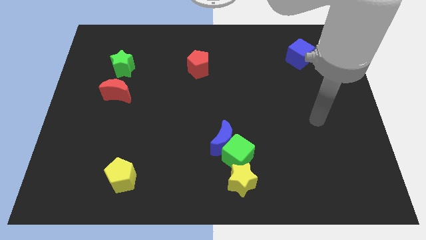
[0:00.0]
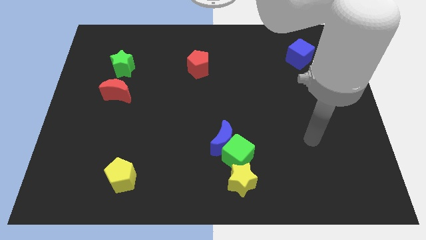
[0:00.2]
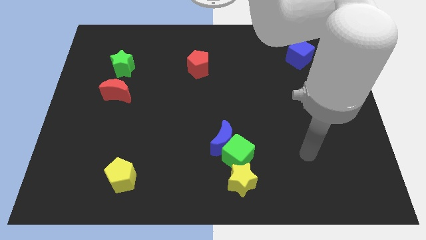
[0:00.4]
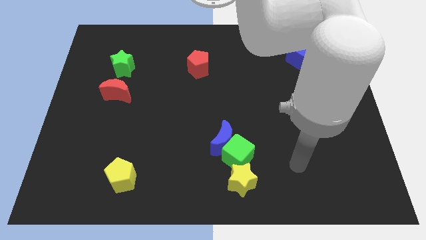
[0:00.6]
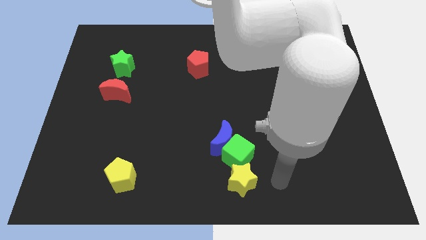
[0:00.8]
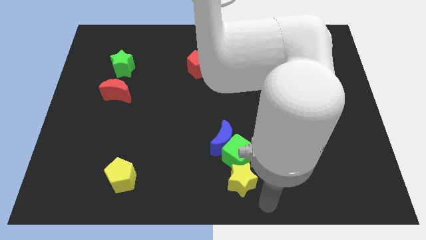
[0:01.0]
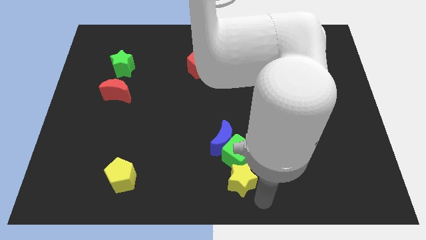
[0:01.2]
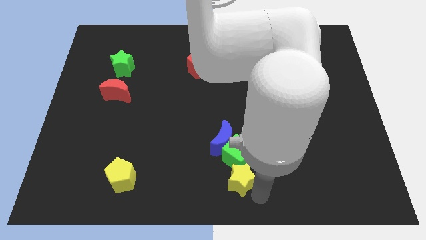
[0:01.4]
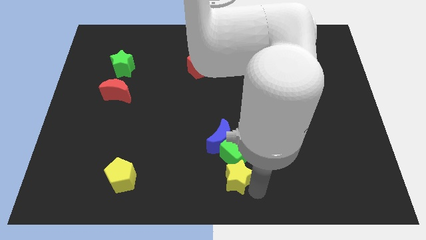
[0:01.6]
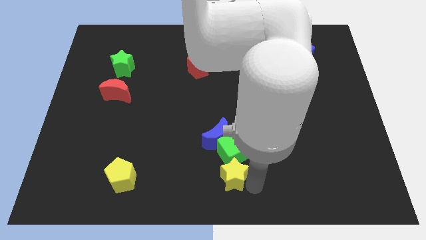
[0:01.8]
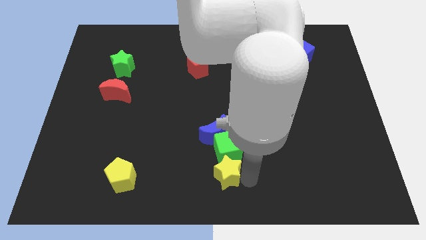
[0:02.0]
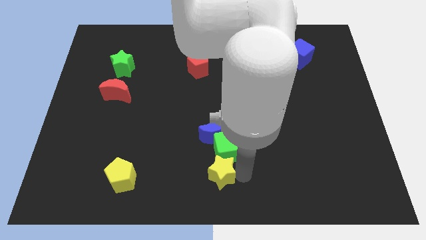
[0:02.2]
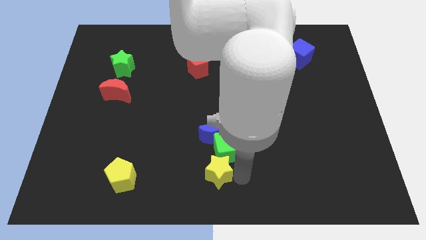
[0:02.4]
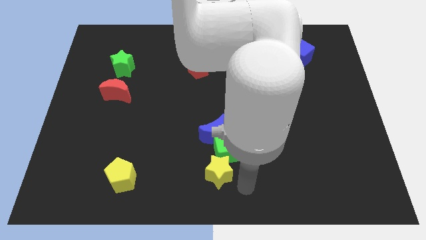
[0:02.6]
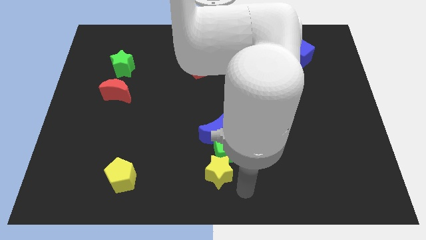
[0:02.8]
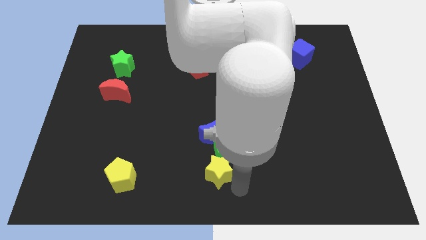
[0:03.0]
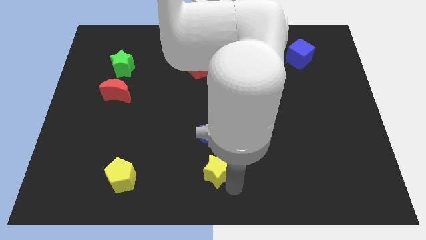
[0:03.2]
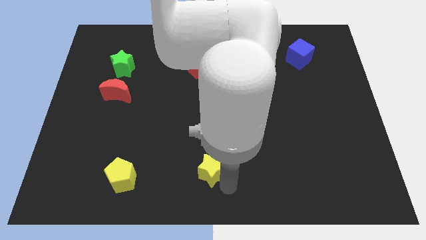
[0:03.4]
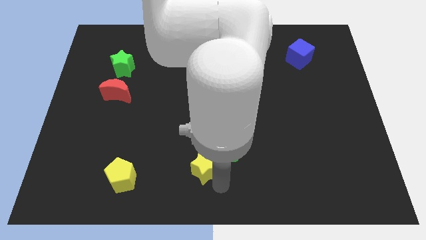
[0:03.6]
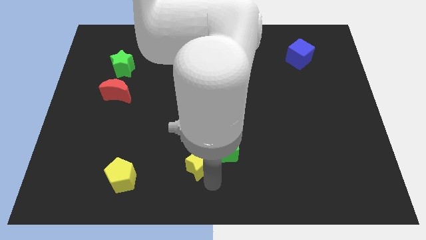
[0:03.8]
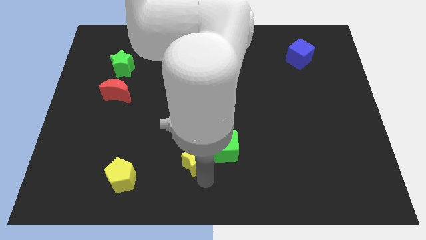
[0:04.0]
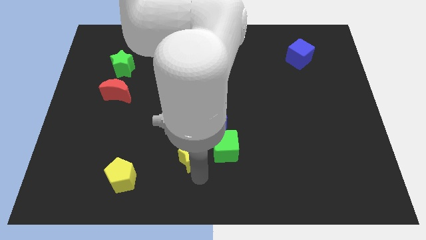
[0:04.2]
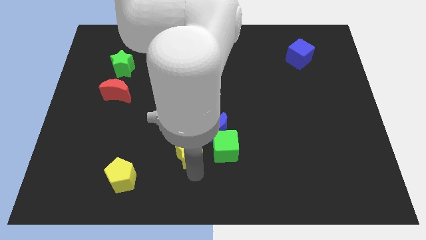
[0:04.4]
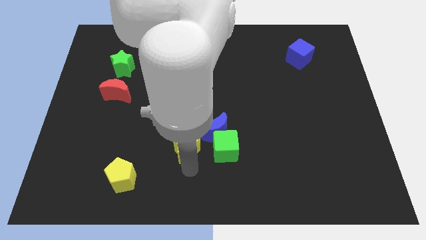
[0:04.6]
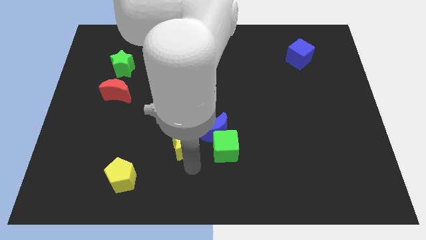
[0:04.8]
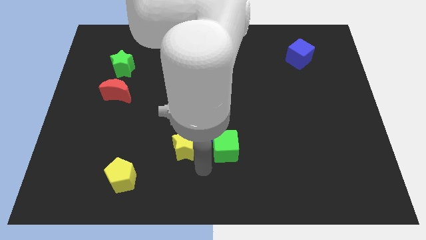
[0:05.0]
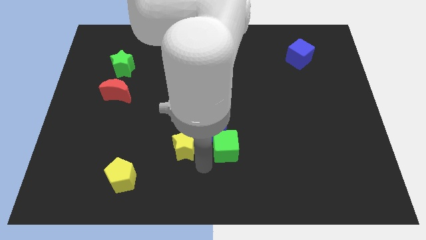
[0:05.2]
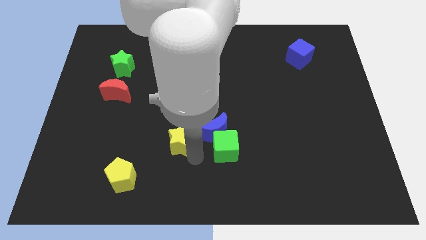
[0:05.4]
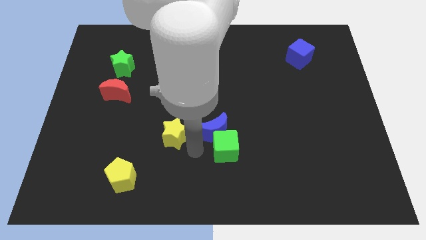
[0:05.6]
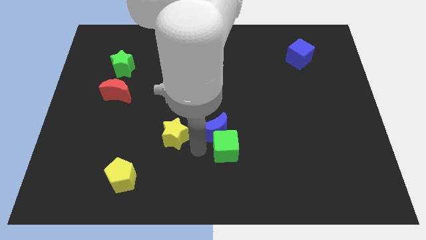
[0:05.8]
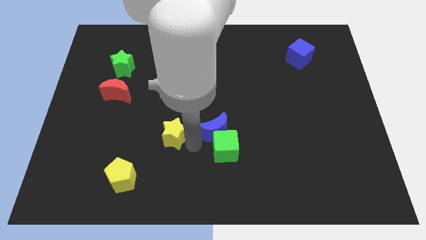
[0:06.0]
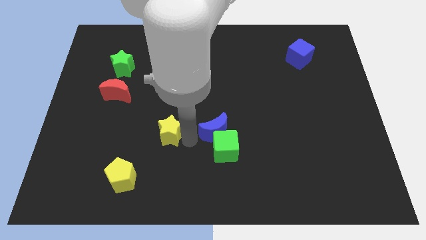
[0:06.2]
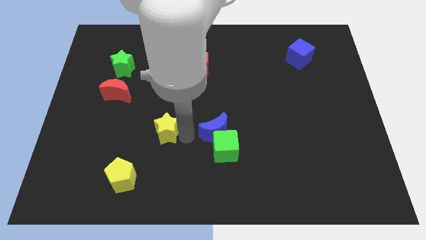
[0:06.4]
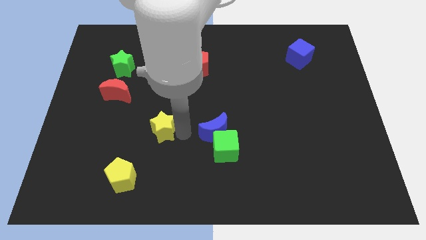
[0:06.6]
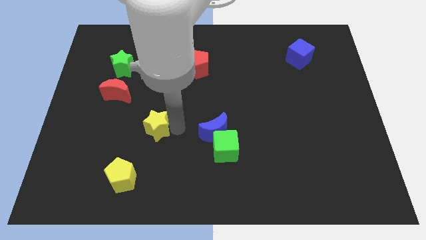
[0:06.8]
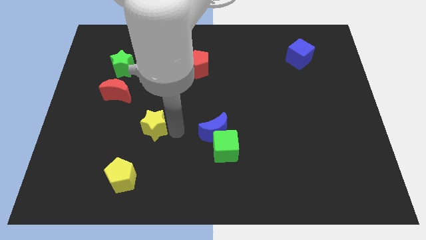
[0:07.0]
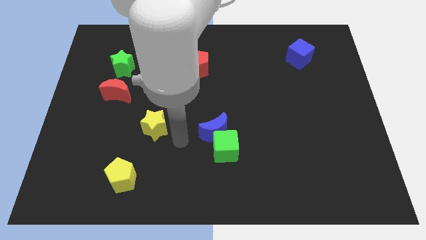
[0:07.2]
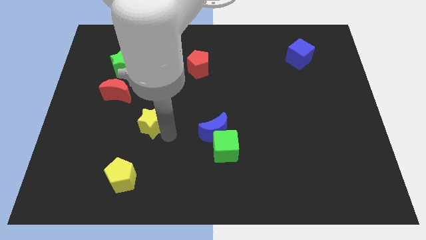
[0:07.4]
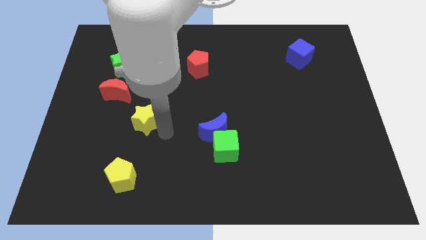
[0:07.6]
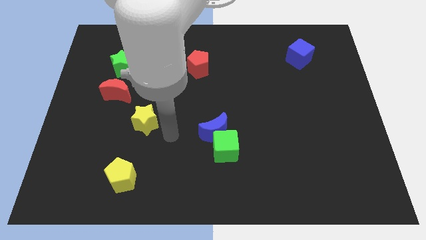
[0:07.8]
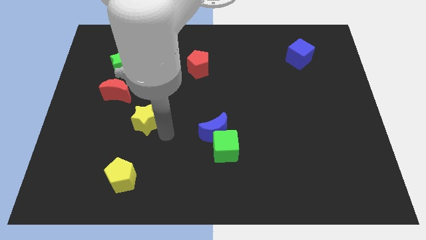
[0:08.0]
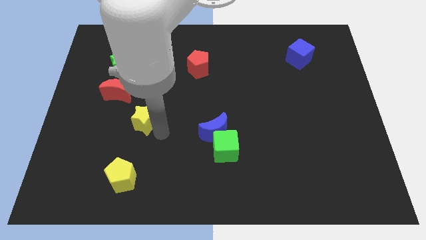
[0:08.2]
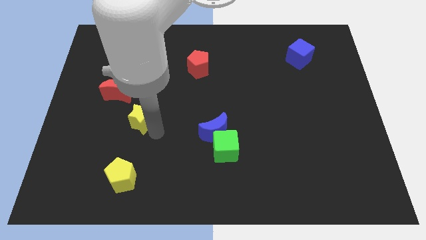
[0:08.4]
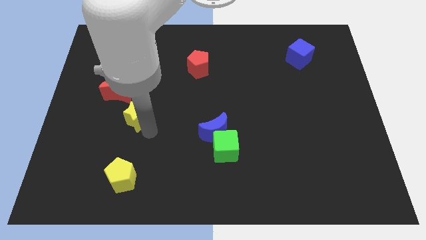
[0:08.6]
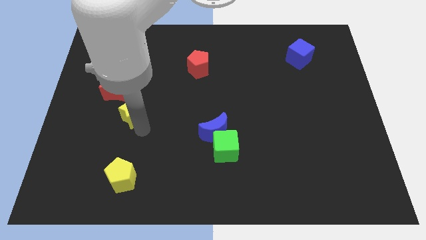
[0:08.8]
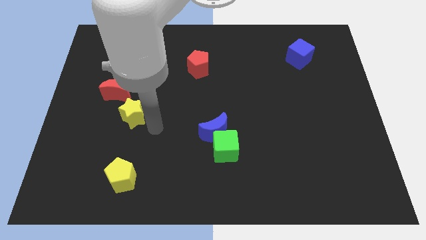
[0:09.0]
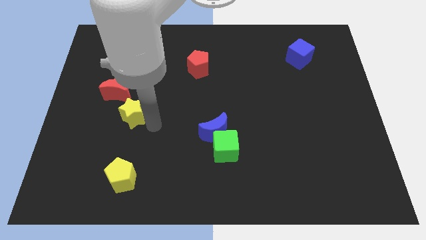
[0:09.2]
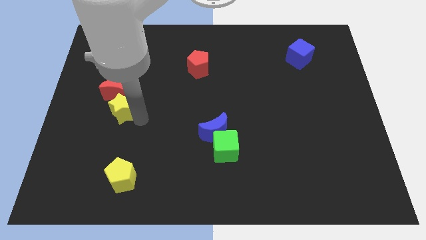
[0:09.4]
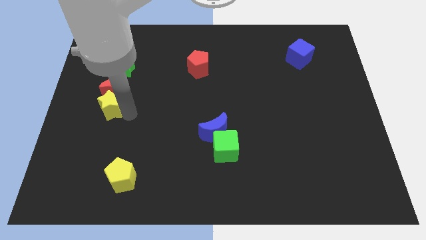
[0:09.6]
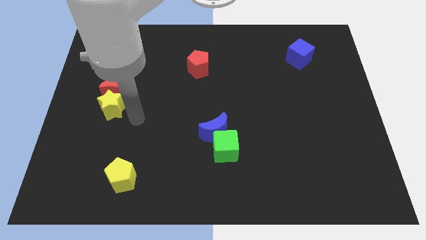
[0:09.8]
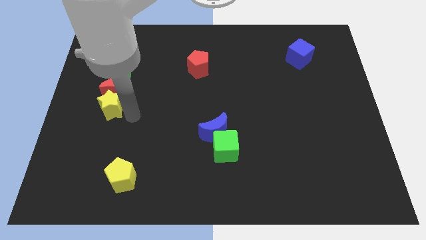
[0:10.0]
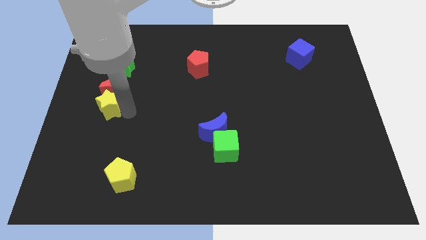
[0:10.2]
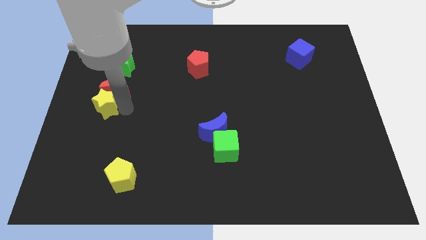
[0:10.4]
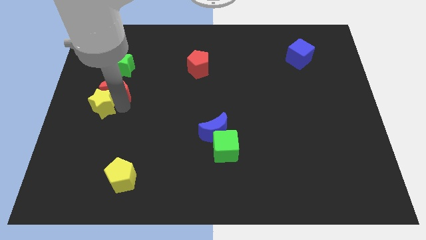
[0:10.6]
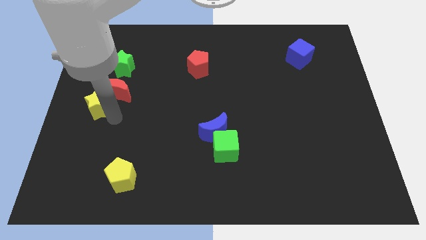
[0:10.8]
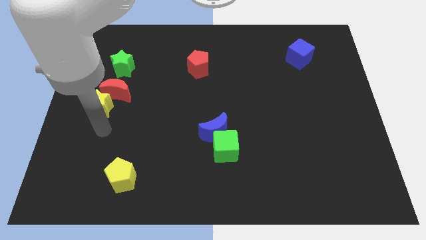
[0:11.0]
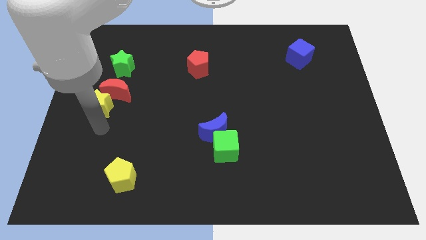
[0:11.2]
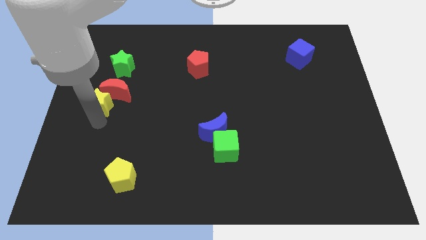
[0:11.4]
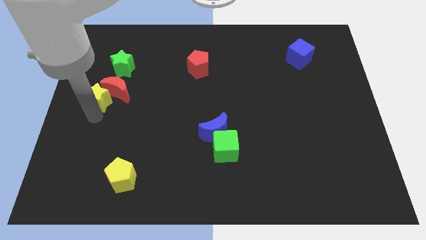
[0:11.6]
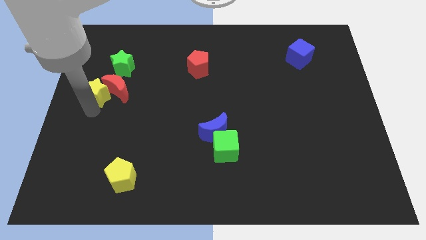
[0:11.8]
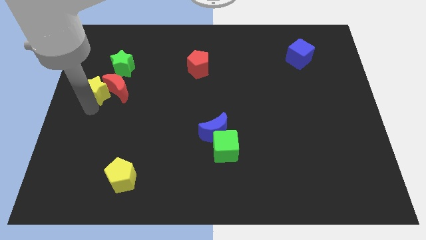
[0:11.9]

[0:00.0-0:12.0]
push the yellow star to the top left of the red moon

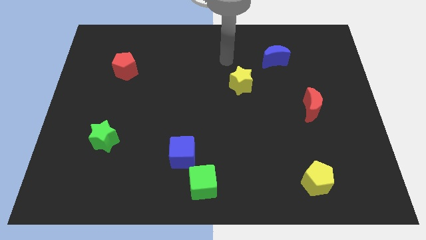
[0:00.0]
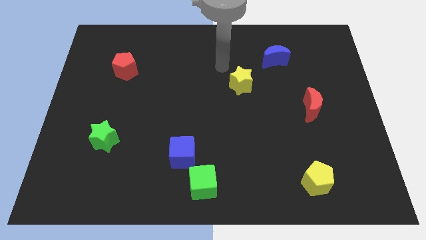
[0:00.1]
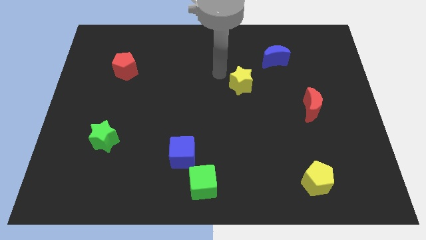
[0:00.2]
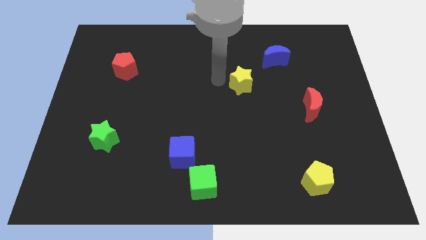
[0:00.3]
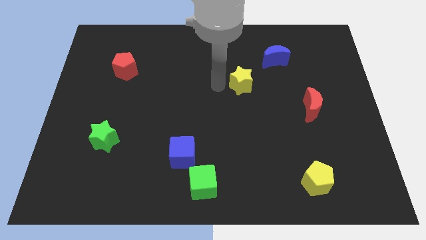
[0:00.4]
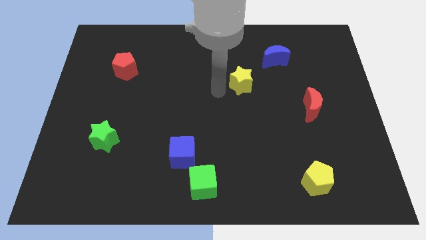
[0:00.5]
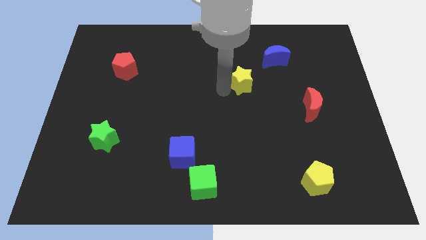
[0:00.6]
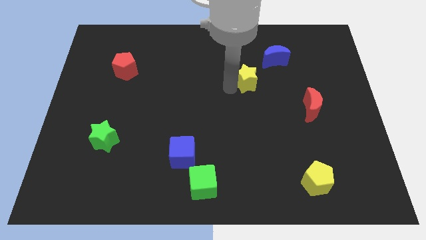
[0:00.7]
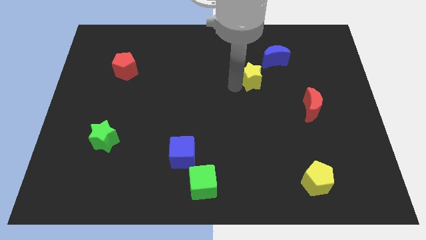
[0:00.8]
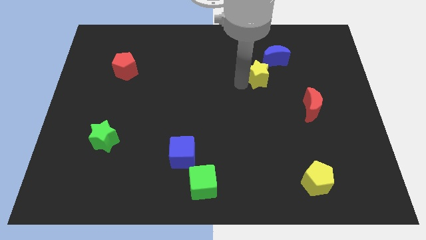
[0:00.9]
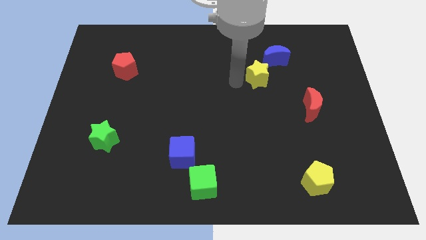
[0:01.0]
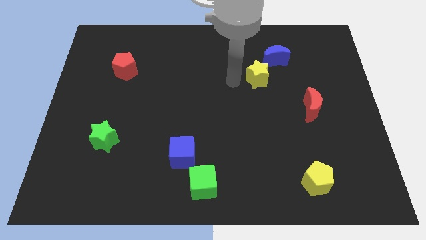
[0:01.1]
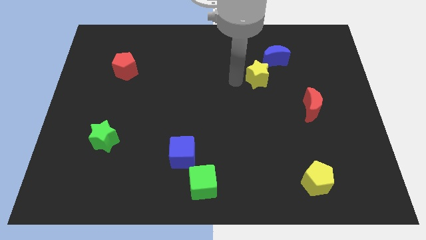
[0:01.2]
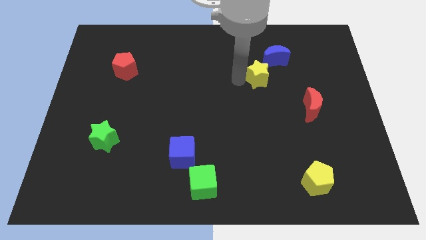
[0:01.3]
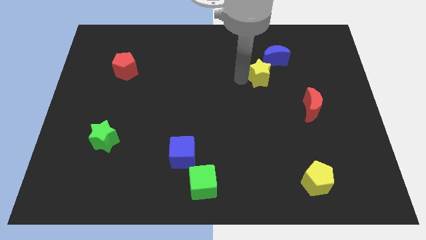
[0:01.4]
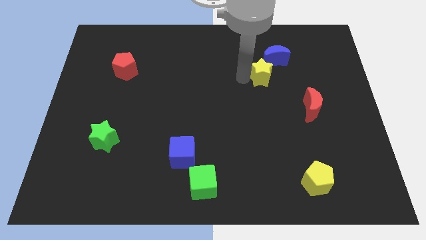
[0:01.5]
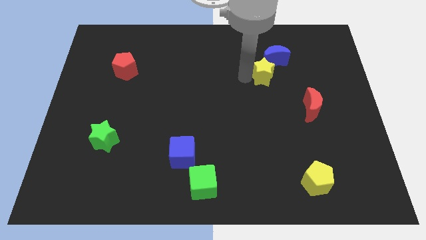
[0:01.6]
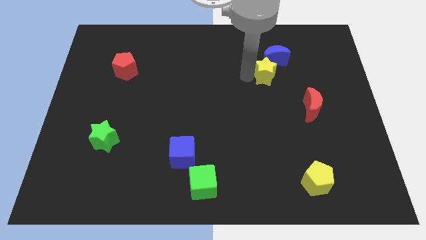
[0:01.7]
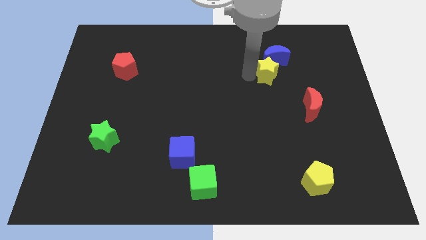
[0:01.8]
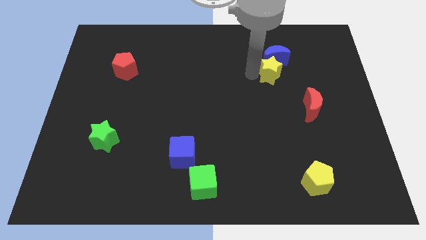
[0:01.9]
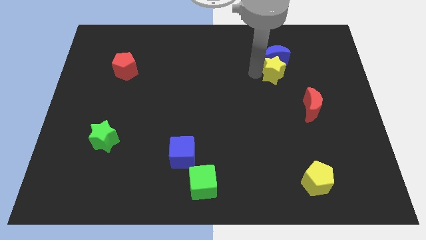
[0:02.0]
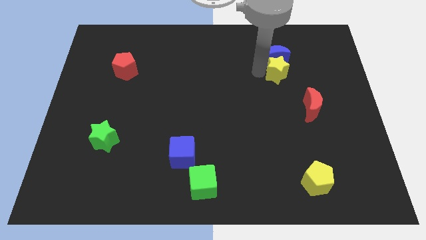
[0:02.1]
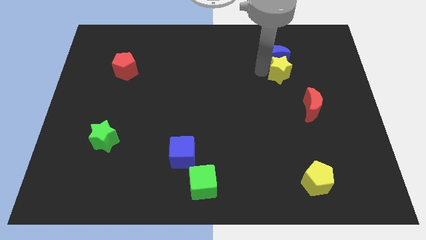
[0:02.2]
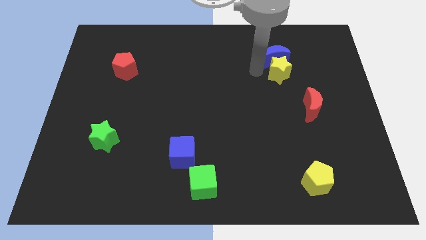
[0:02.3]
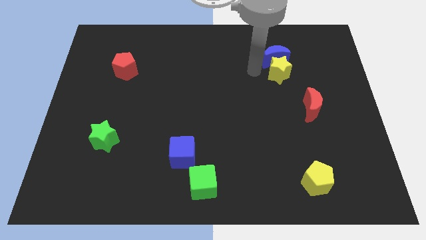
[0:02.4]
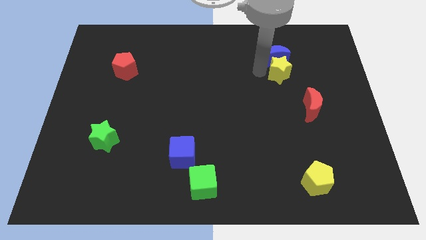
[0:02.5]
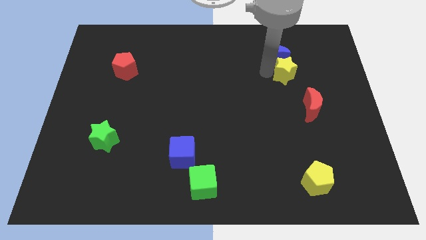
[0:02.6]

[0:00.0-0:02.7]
push the yellow star to the top of the red moon
